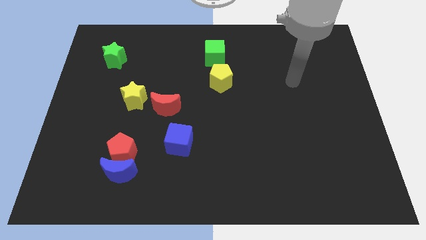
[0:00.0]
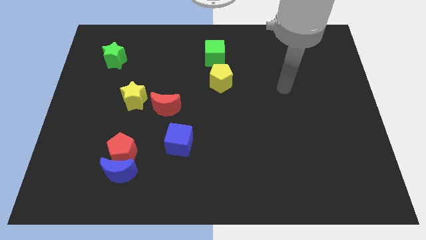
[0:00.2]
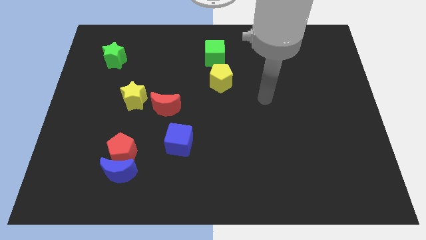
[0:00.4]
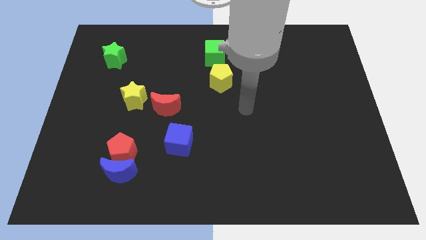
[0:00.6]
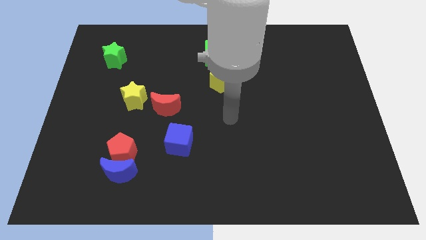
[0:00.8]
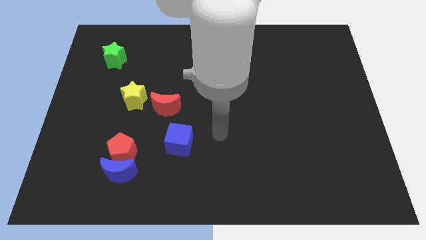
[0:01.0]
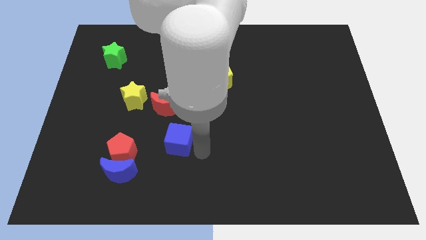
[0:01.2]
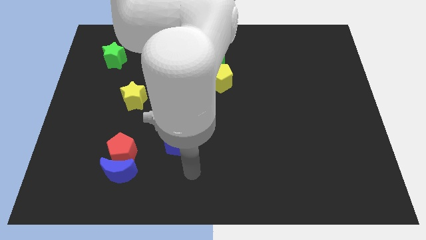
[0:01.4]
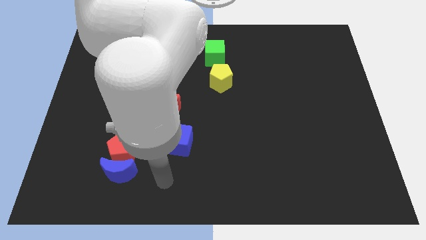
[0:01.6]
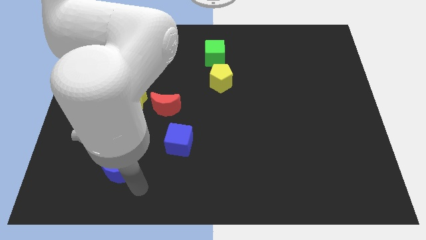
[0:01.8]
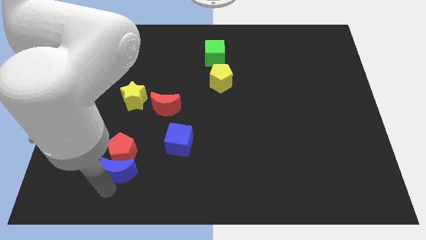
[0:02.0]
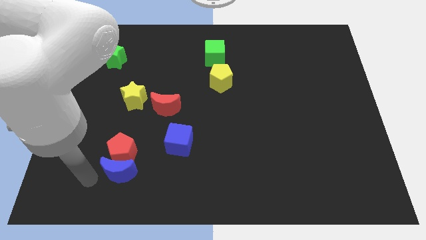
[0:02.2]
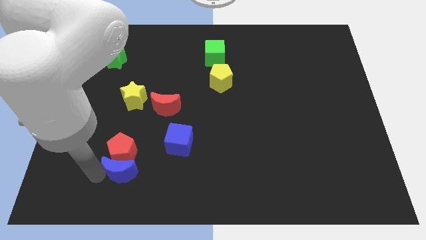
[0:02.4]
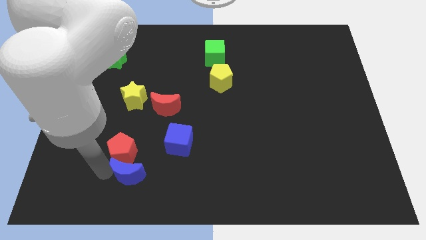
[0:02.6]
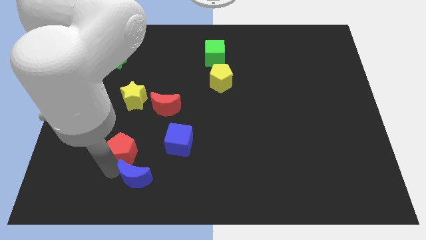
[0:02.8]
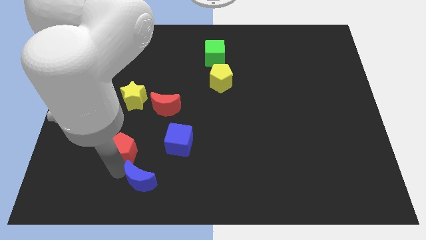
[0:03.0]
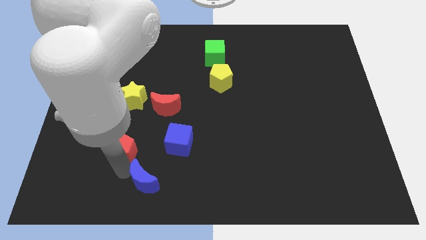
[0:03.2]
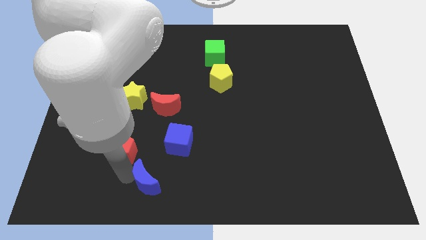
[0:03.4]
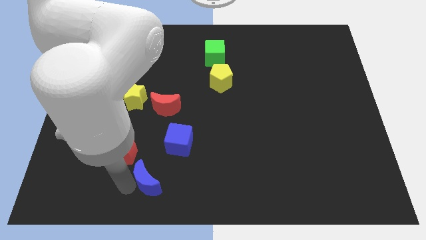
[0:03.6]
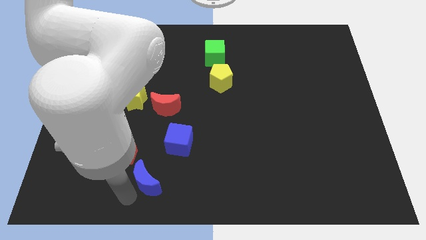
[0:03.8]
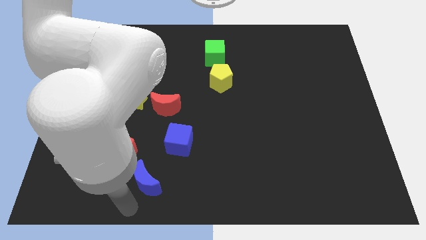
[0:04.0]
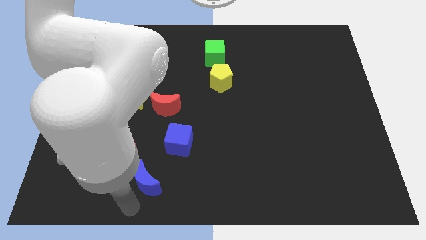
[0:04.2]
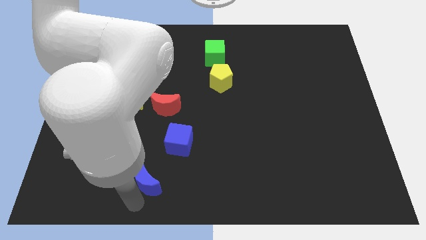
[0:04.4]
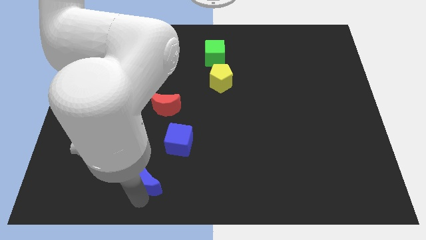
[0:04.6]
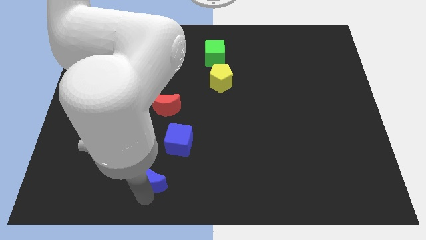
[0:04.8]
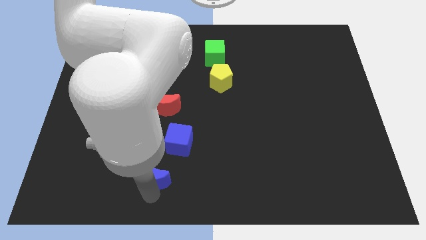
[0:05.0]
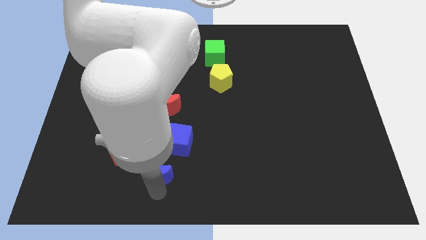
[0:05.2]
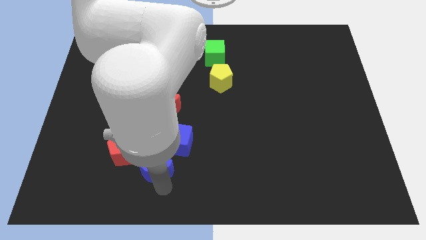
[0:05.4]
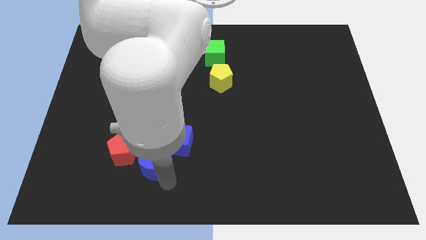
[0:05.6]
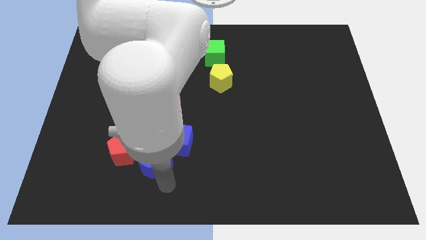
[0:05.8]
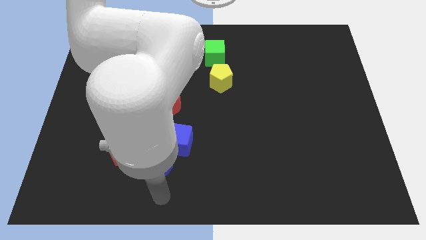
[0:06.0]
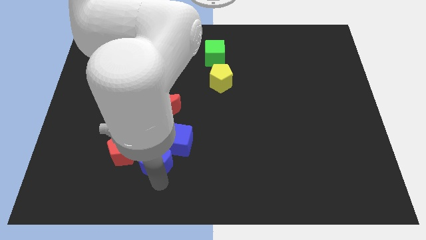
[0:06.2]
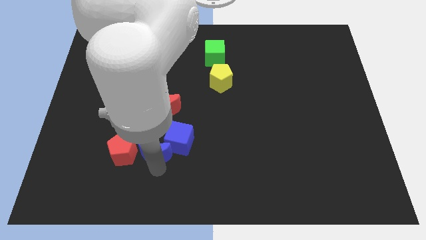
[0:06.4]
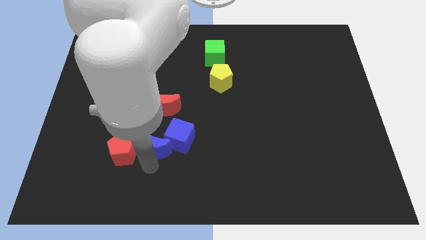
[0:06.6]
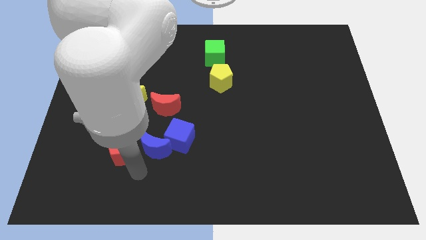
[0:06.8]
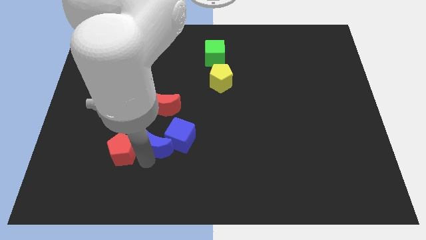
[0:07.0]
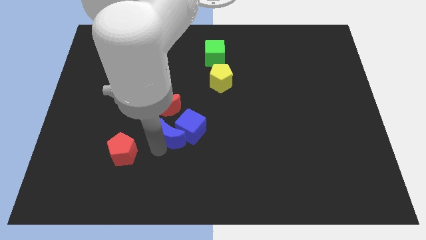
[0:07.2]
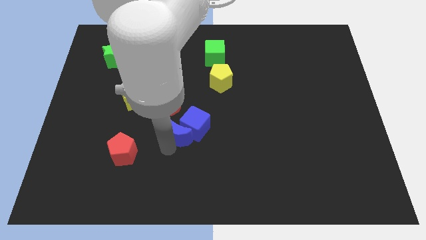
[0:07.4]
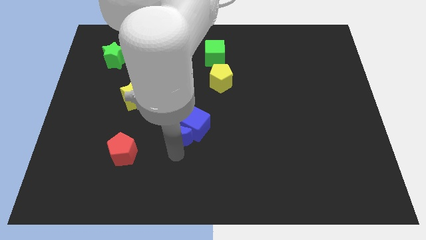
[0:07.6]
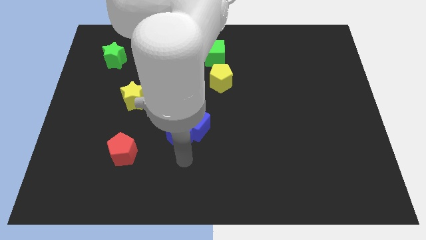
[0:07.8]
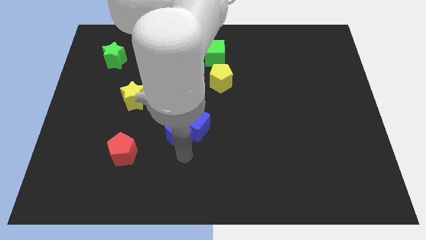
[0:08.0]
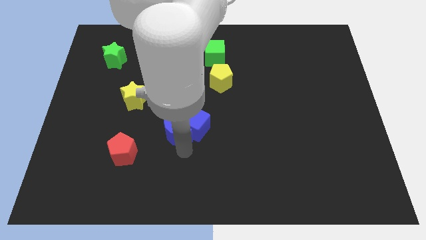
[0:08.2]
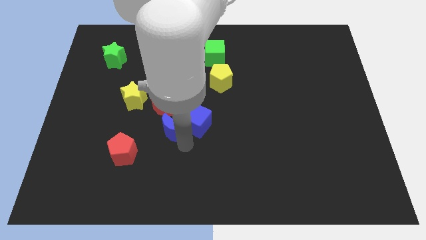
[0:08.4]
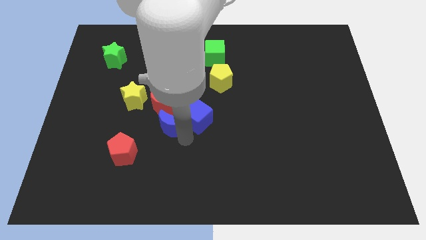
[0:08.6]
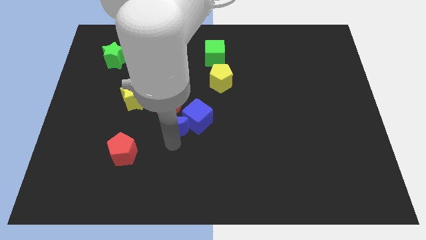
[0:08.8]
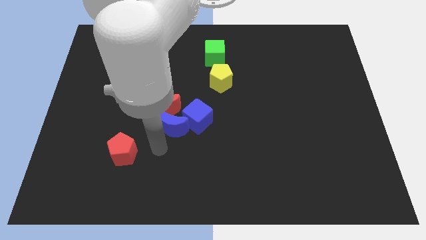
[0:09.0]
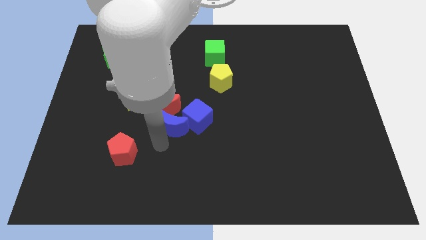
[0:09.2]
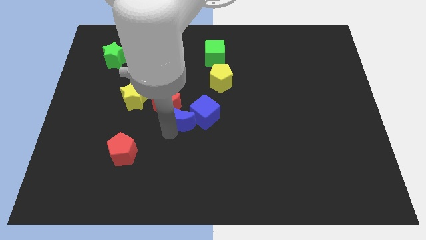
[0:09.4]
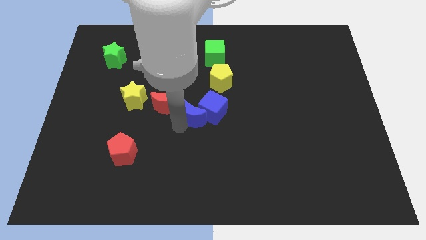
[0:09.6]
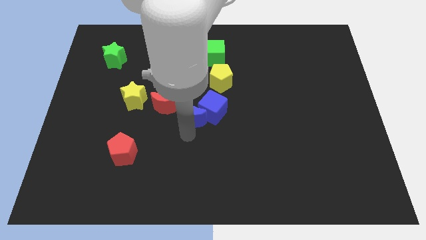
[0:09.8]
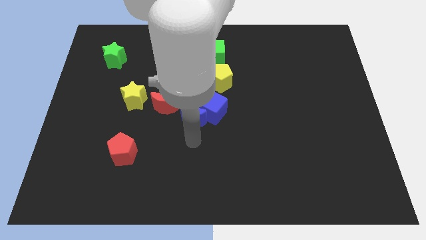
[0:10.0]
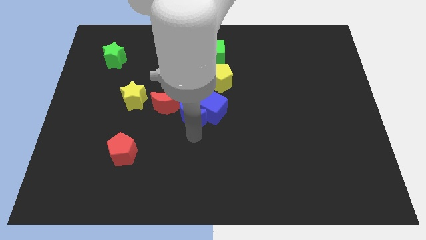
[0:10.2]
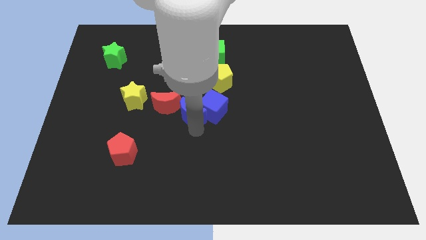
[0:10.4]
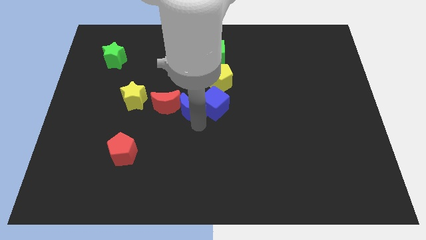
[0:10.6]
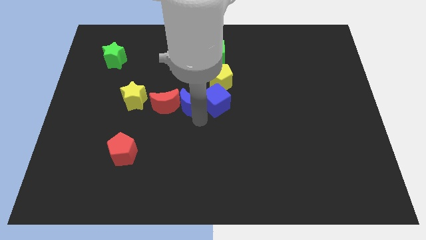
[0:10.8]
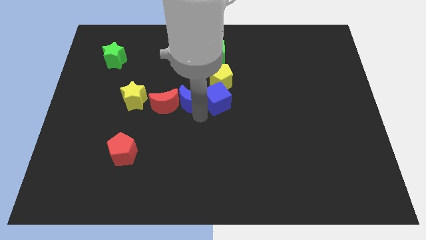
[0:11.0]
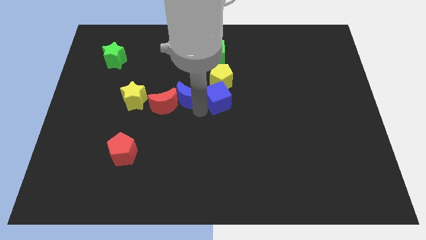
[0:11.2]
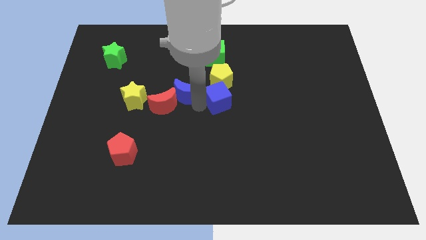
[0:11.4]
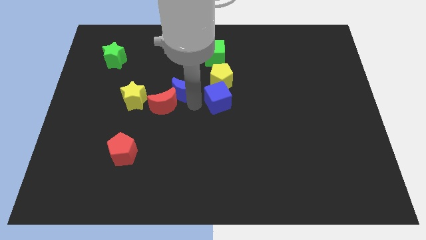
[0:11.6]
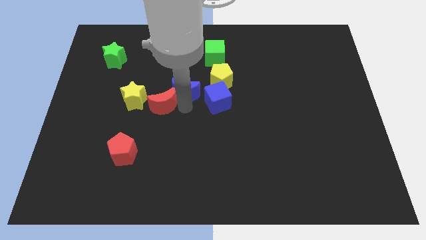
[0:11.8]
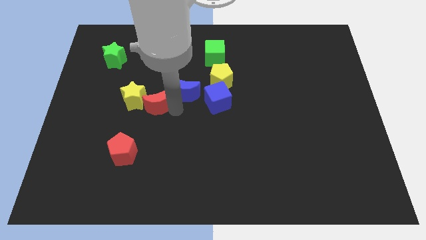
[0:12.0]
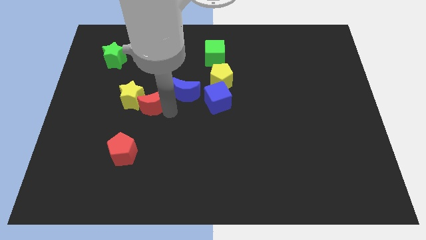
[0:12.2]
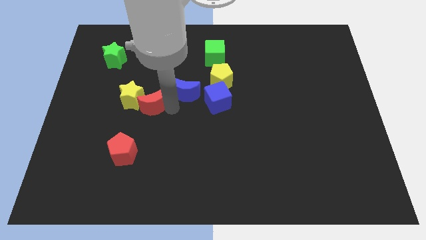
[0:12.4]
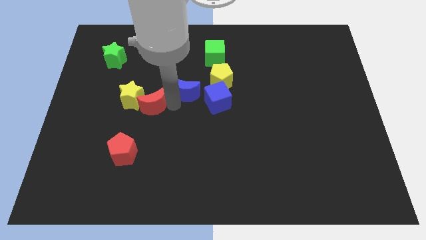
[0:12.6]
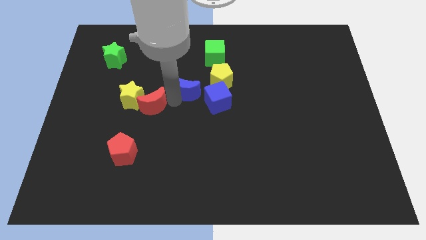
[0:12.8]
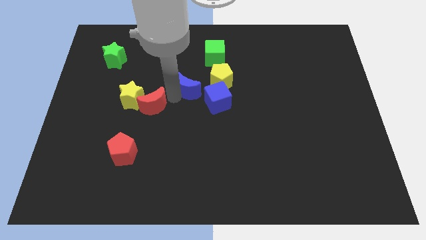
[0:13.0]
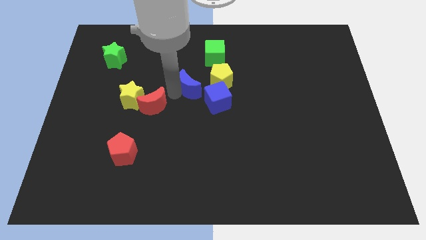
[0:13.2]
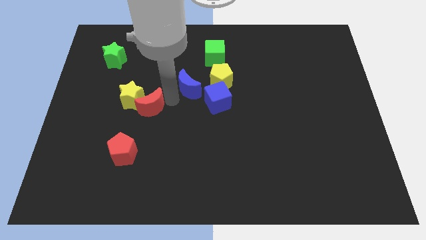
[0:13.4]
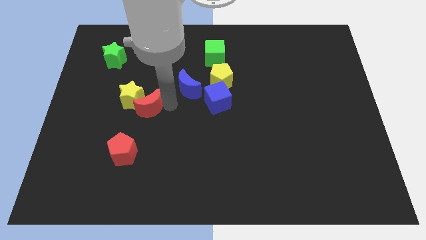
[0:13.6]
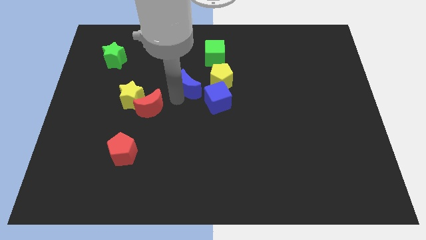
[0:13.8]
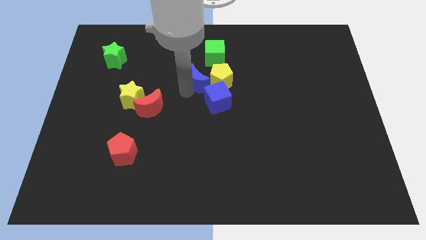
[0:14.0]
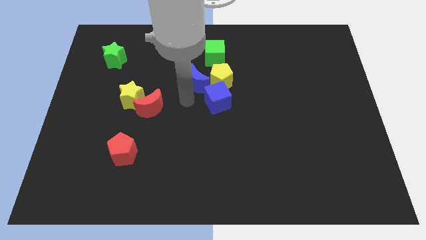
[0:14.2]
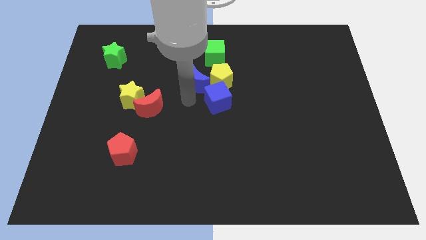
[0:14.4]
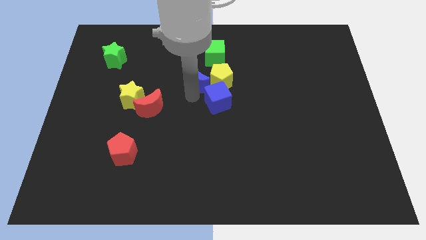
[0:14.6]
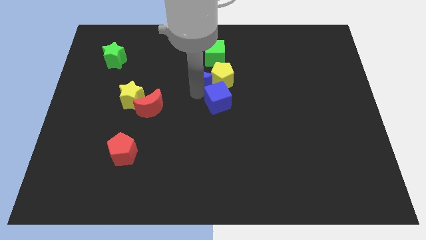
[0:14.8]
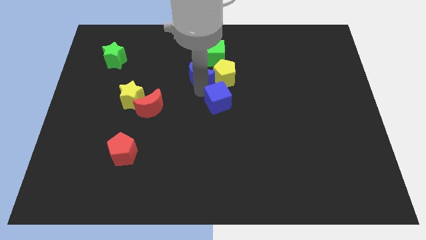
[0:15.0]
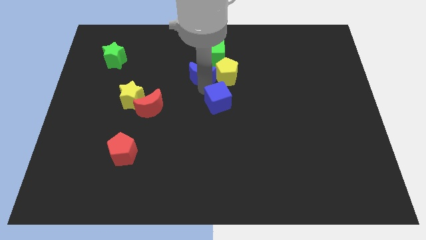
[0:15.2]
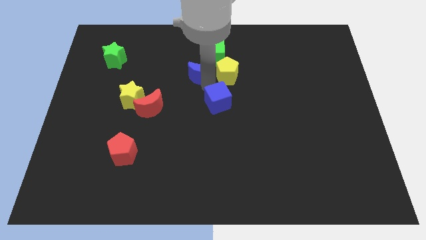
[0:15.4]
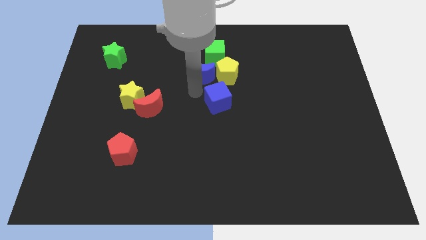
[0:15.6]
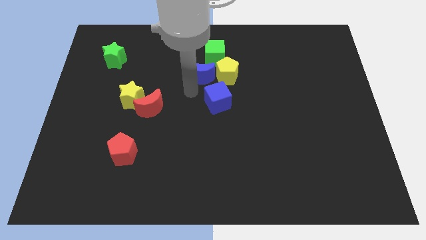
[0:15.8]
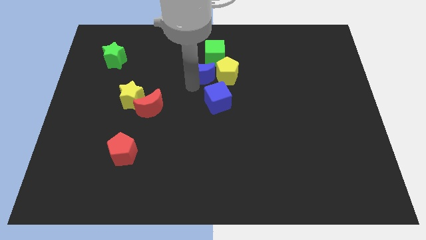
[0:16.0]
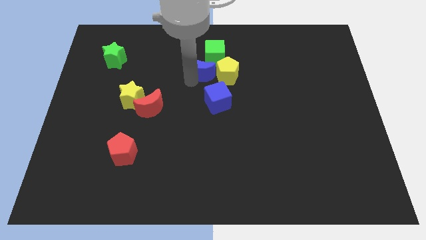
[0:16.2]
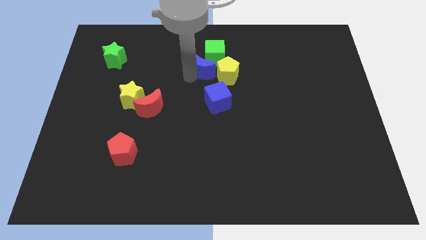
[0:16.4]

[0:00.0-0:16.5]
move the blue moon towards the green cube
